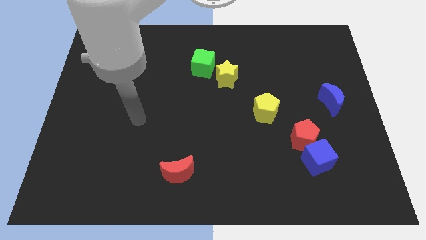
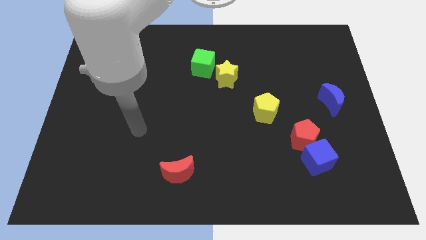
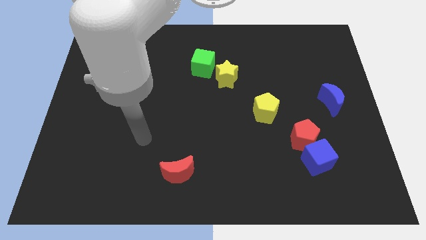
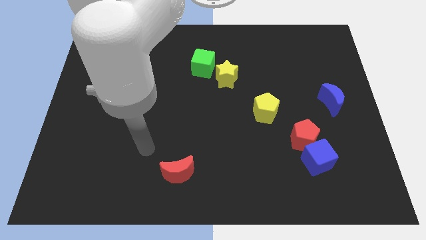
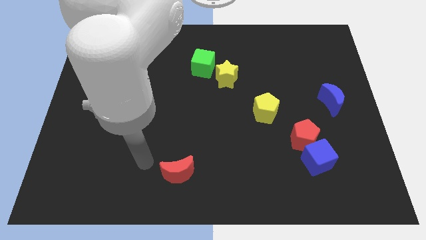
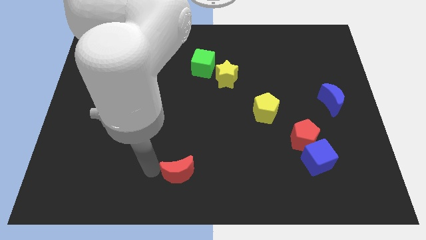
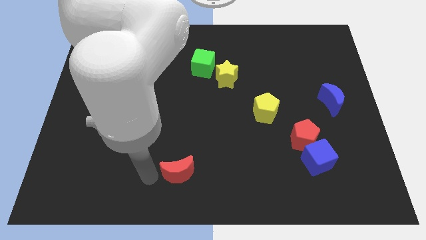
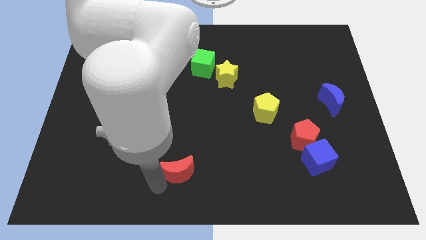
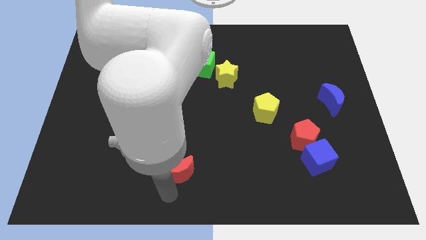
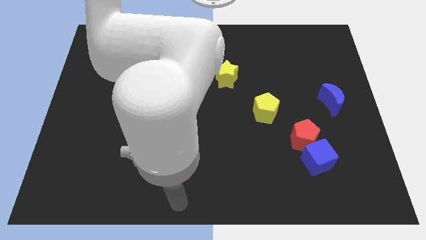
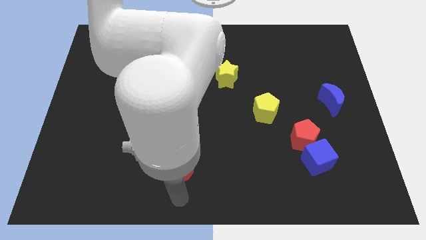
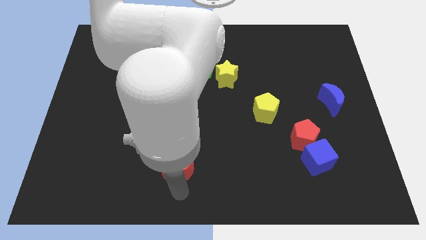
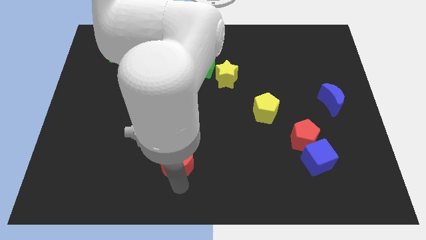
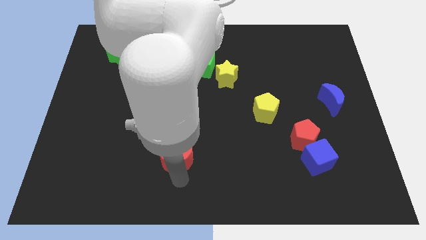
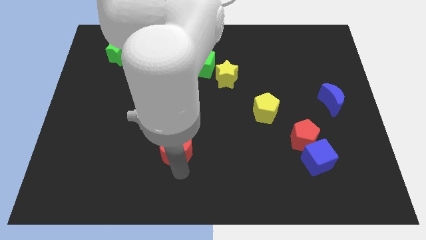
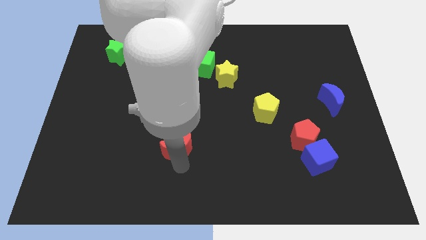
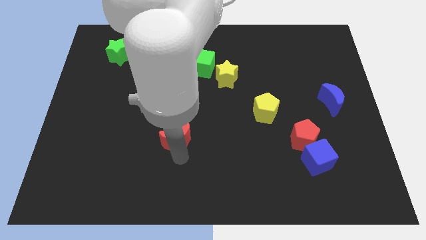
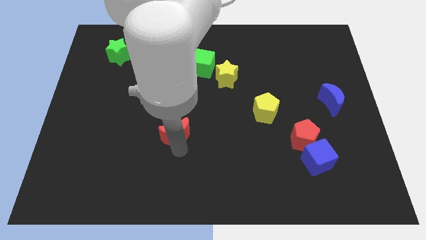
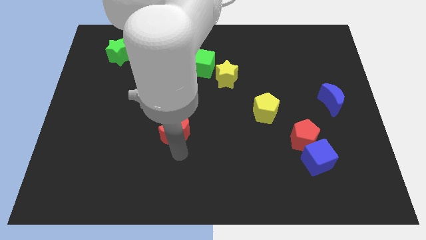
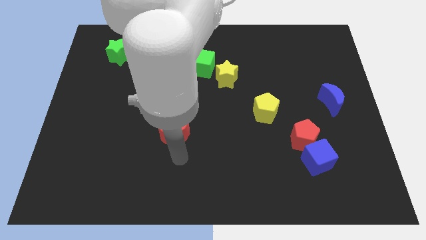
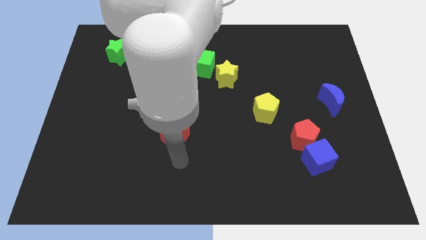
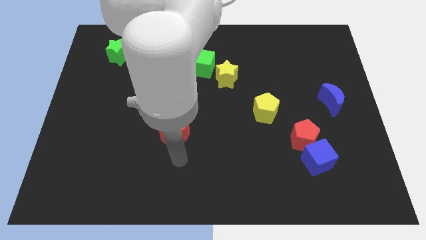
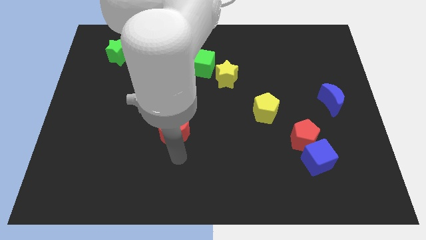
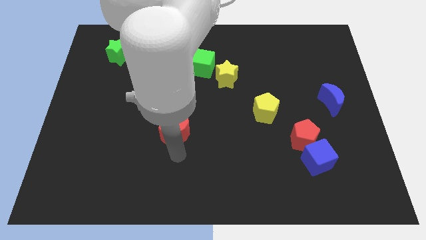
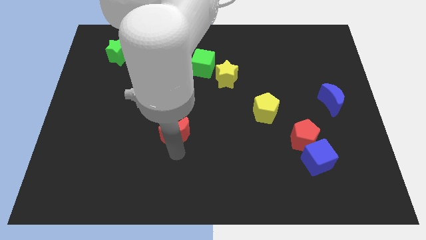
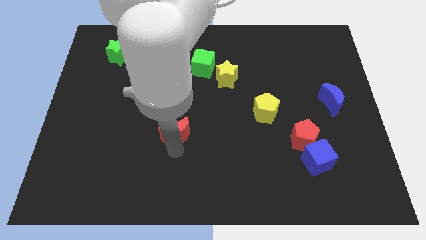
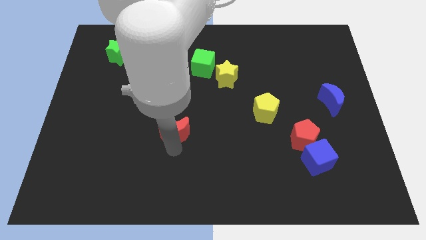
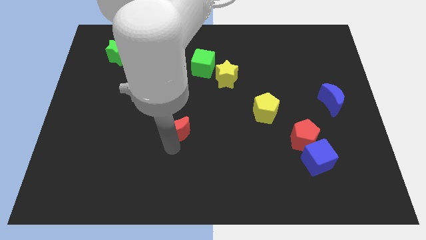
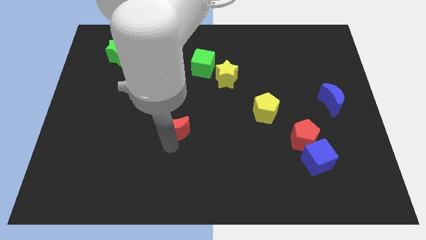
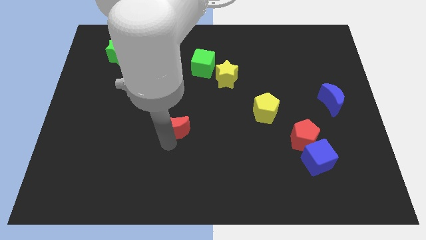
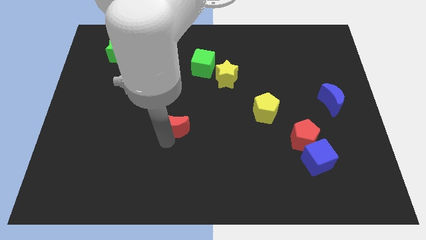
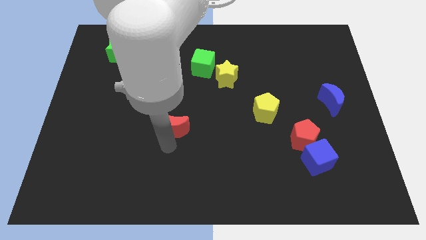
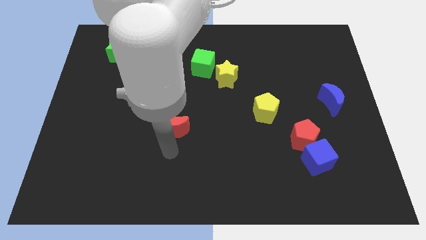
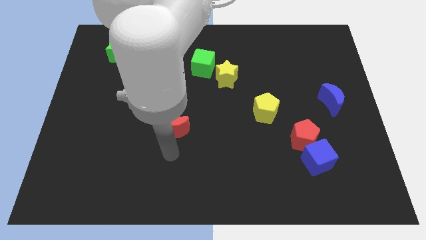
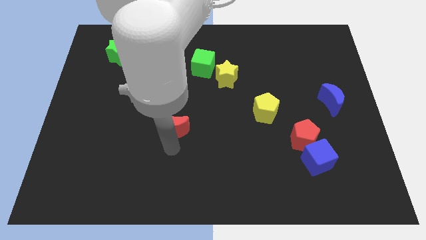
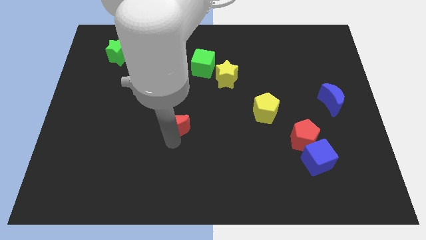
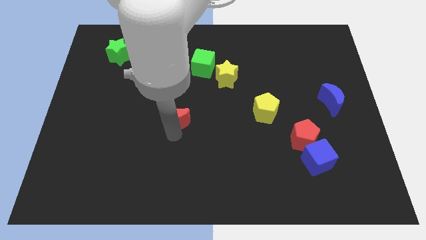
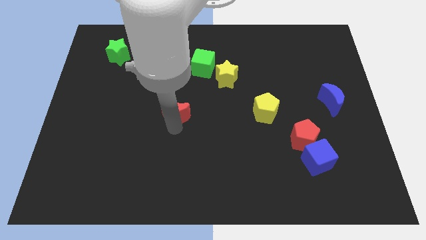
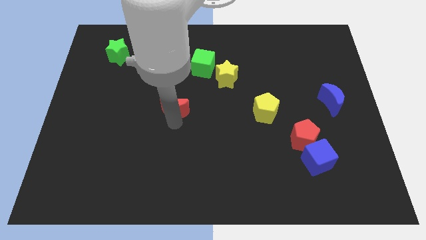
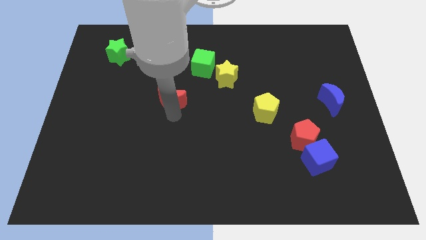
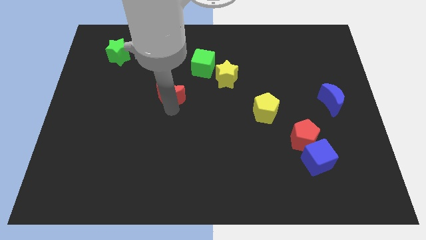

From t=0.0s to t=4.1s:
push the red moon upwards

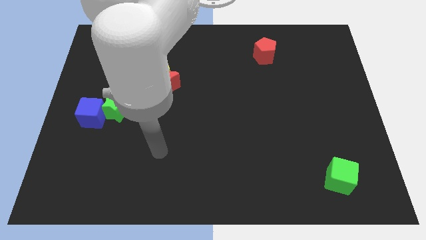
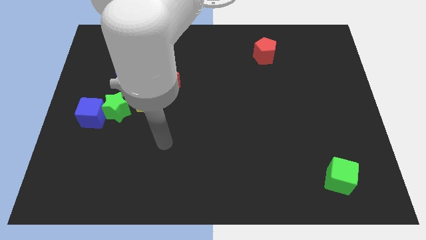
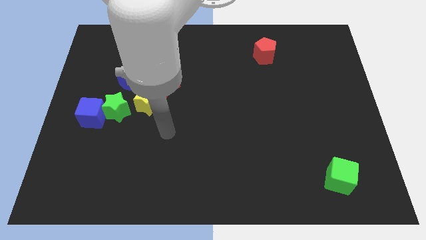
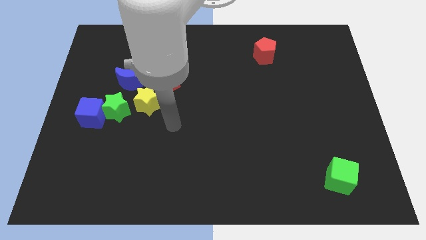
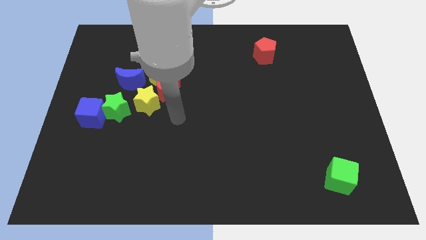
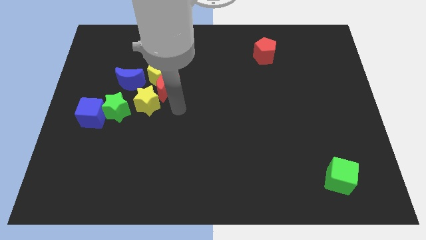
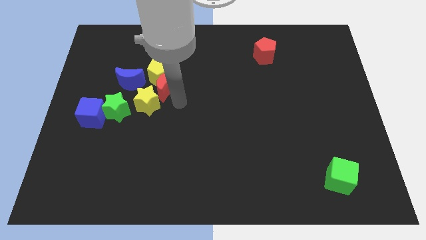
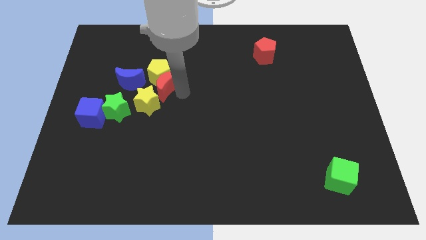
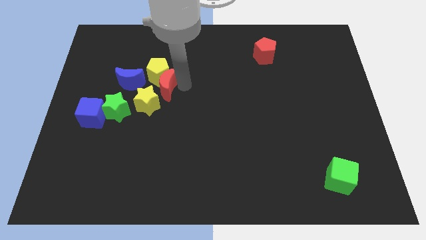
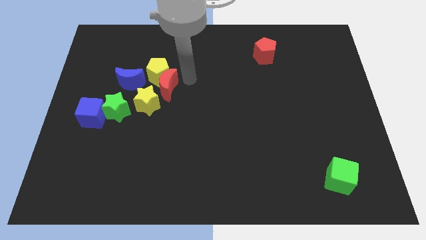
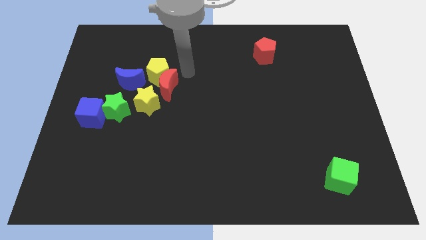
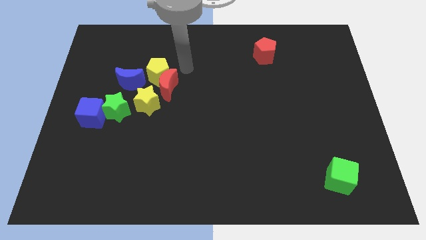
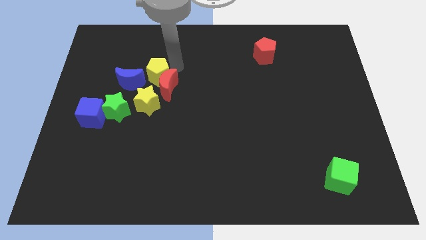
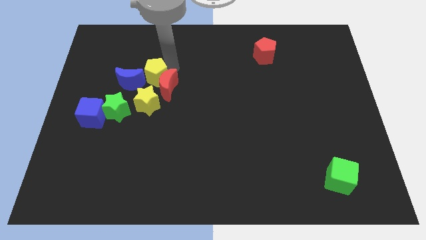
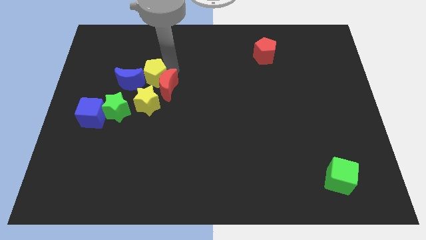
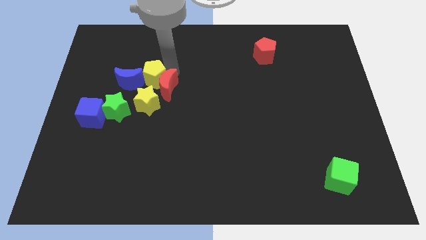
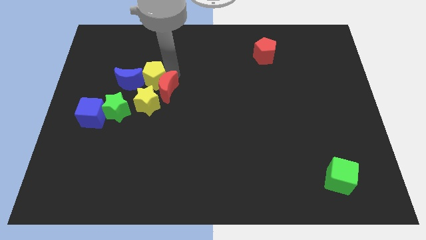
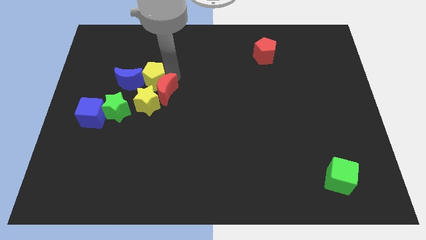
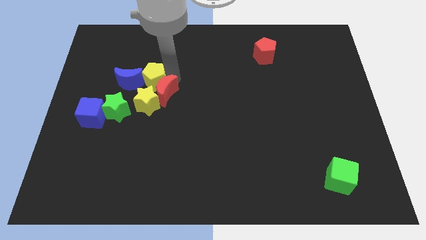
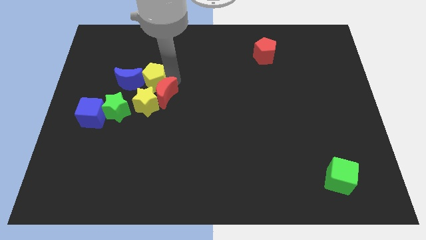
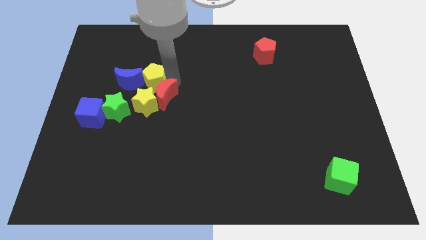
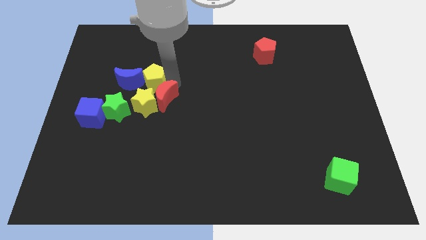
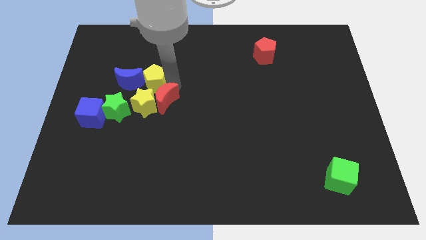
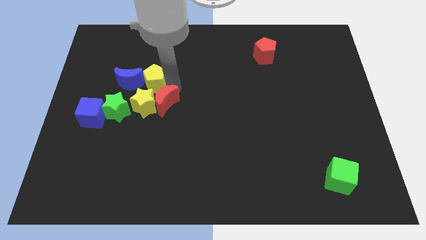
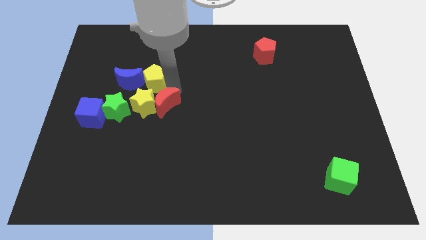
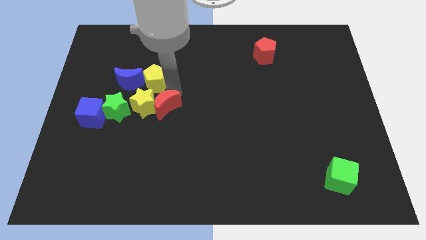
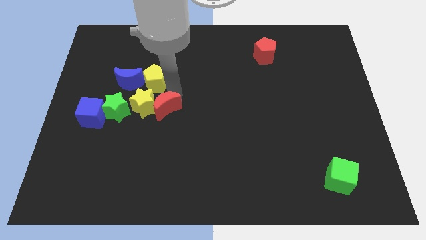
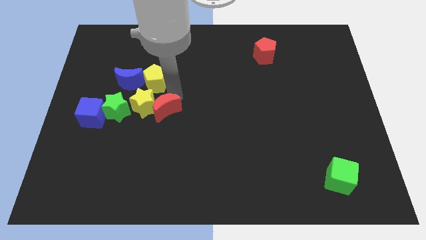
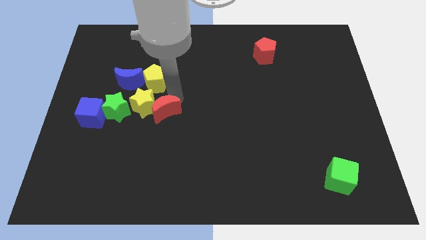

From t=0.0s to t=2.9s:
slightly slide the red moon down

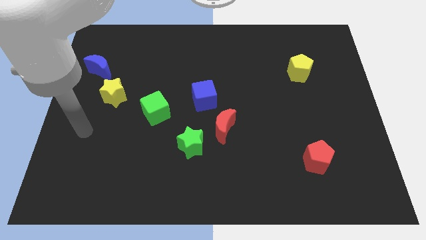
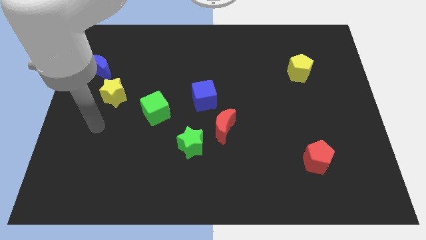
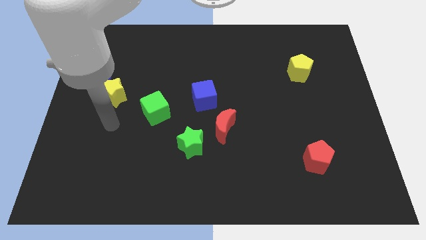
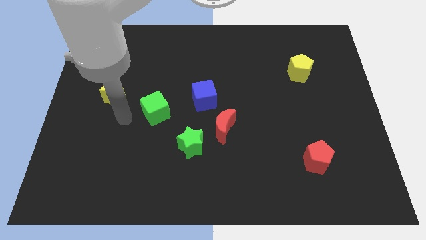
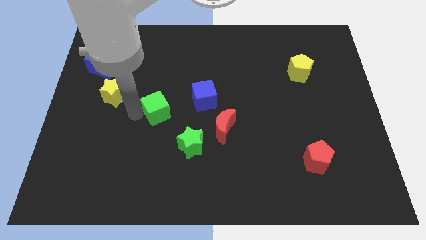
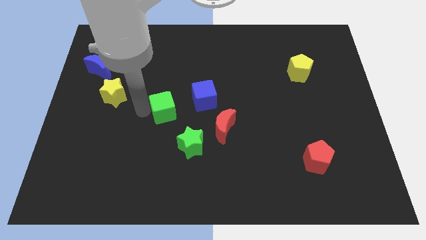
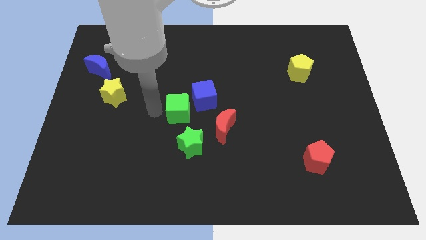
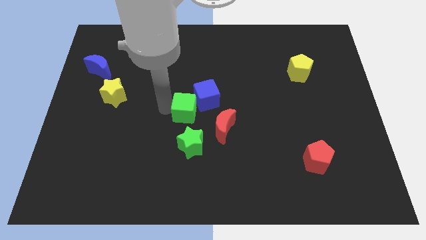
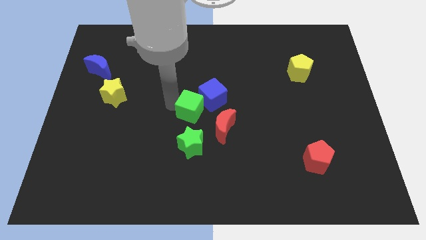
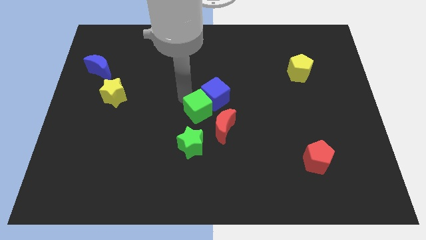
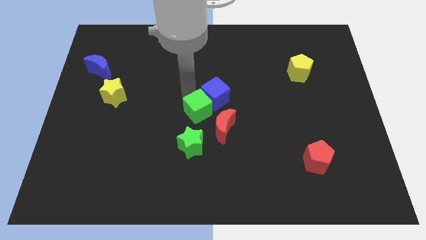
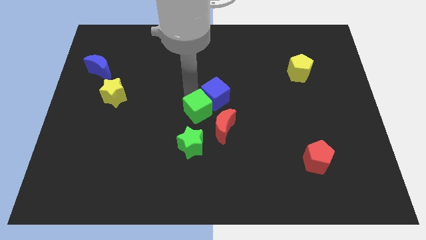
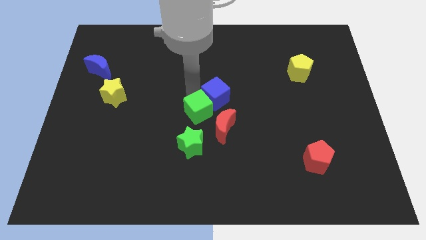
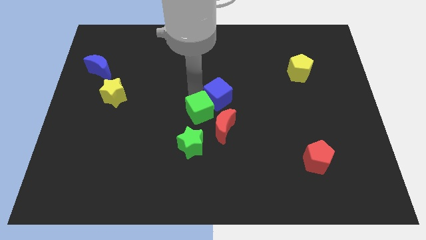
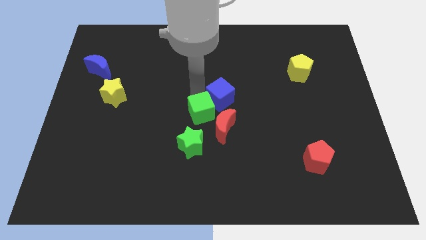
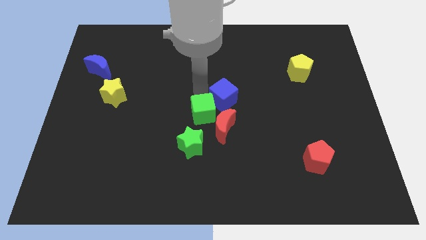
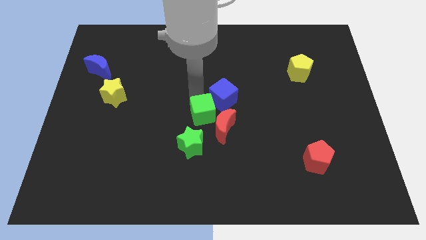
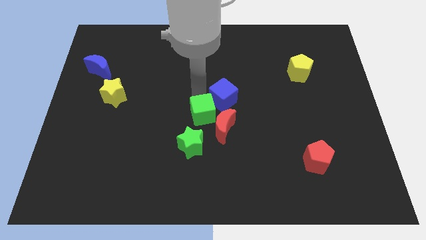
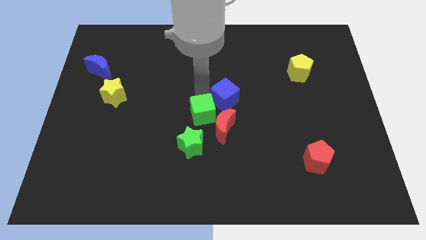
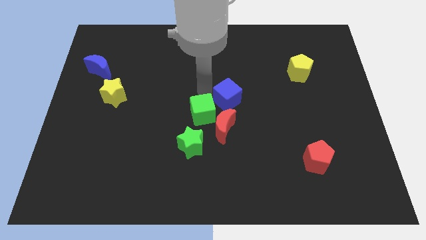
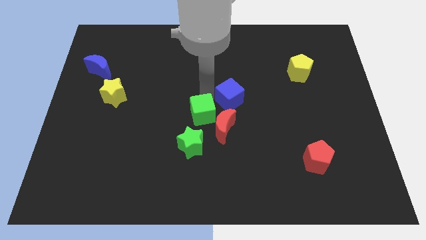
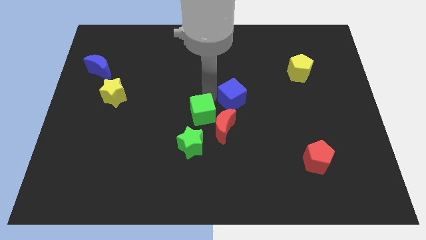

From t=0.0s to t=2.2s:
slide the blue cube to the right somewhat
